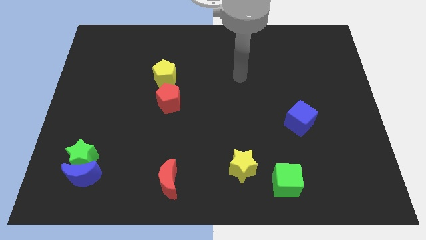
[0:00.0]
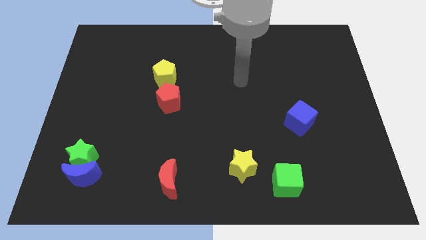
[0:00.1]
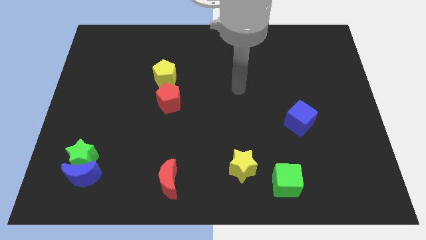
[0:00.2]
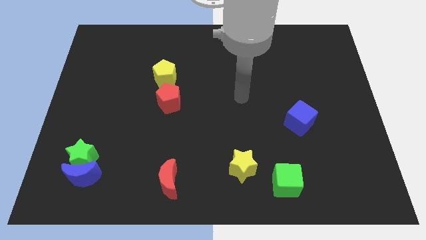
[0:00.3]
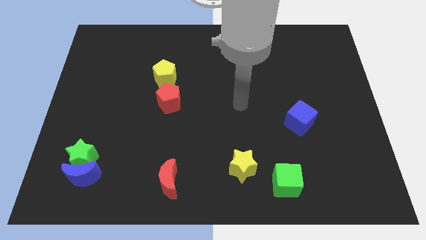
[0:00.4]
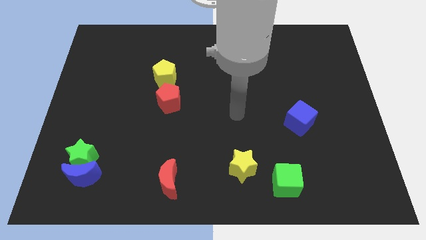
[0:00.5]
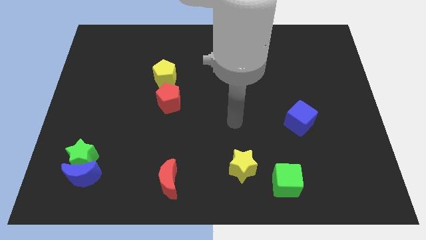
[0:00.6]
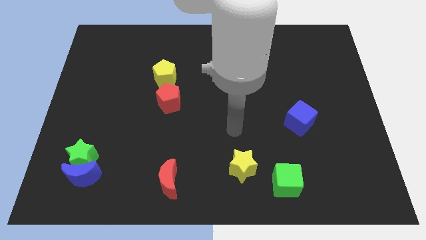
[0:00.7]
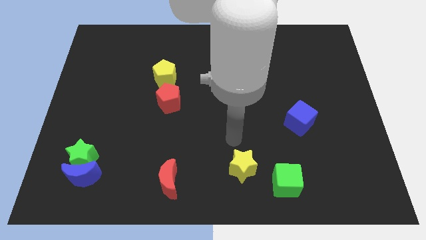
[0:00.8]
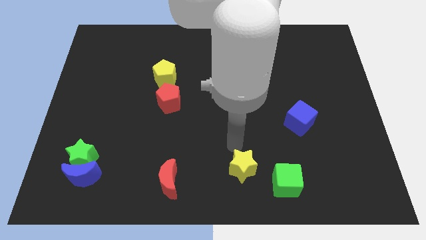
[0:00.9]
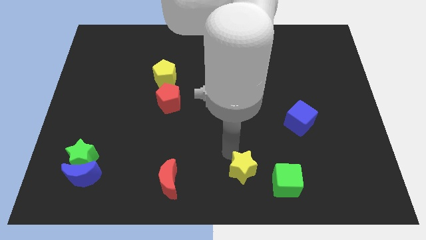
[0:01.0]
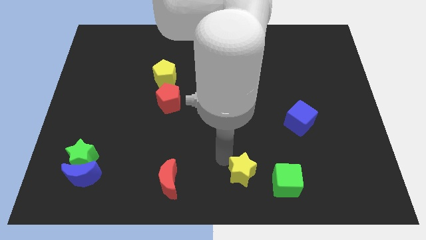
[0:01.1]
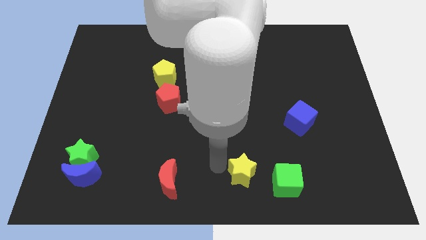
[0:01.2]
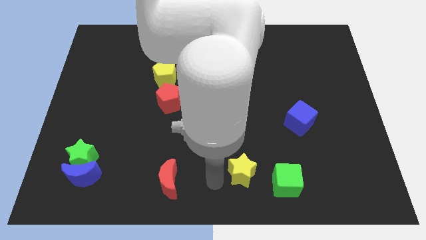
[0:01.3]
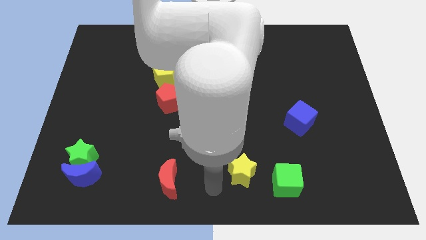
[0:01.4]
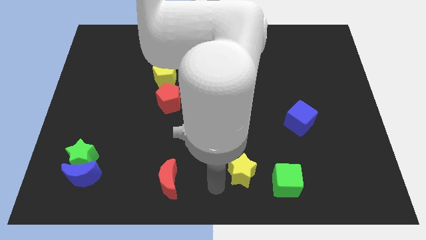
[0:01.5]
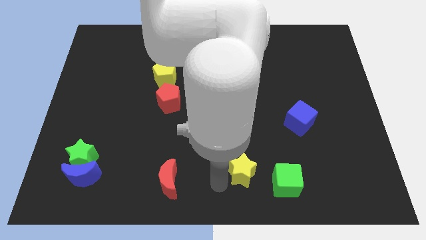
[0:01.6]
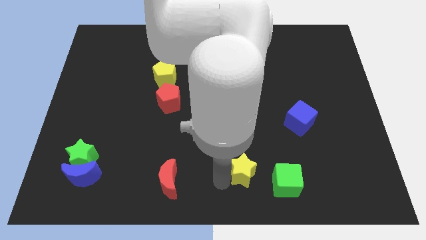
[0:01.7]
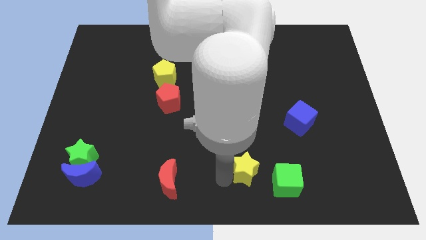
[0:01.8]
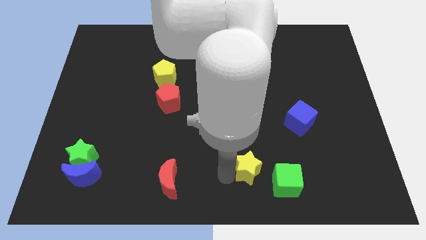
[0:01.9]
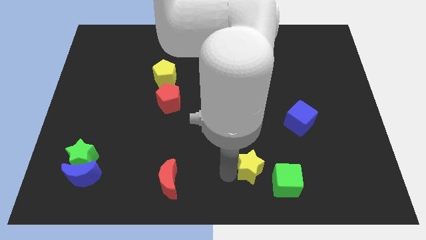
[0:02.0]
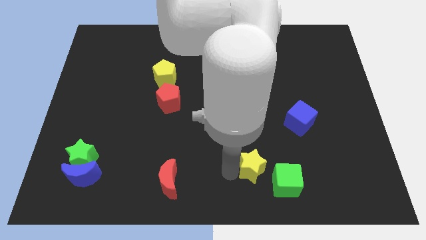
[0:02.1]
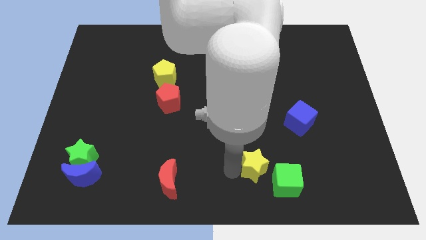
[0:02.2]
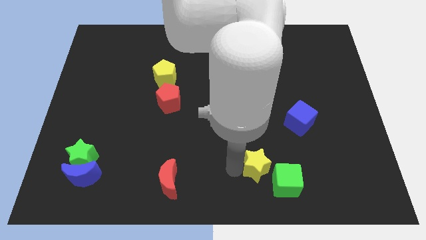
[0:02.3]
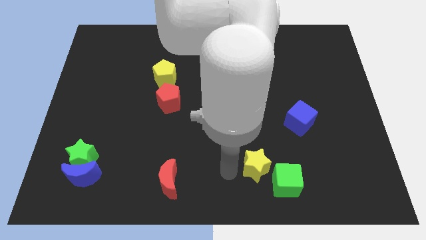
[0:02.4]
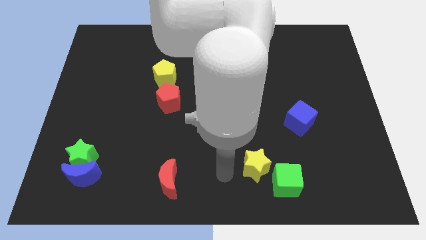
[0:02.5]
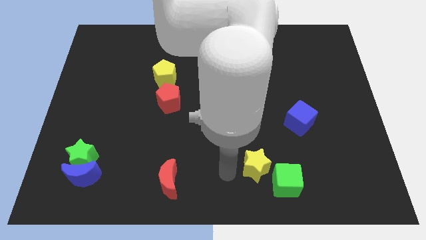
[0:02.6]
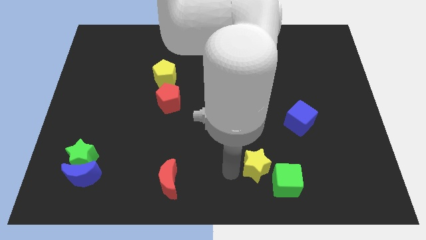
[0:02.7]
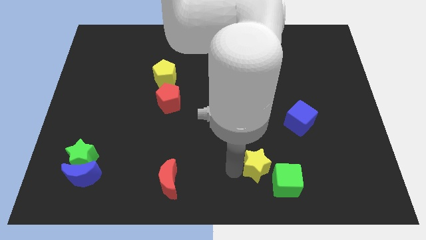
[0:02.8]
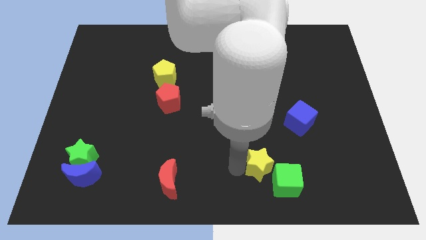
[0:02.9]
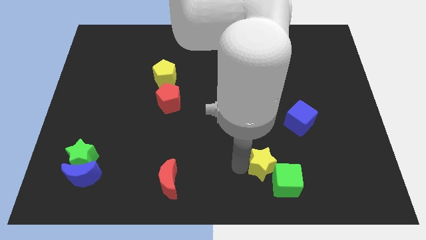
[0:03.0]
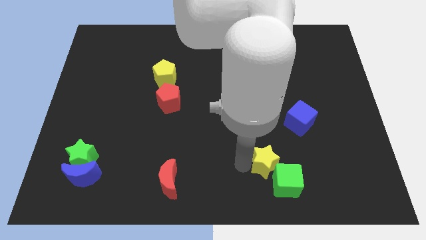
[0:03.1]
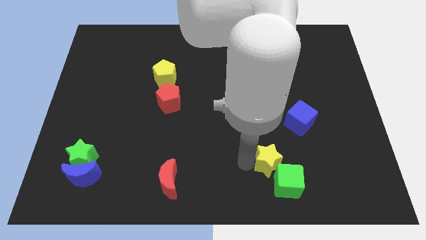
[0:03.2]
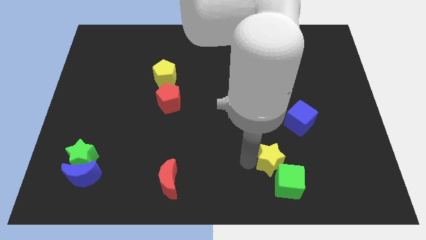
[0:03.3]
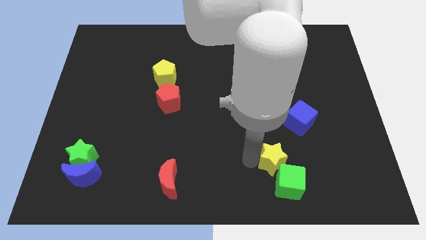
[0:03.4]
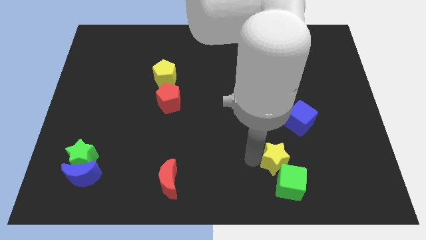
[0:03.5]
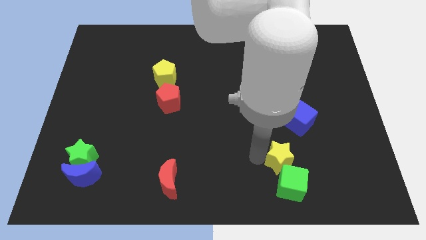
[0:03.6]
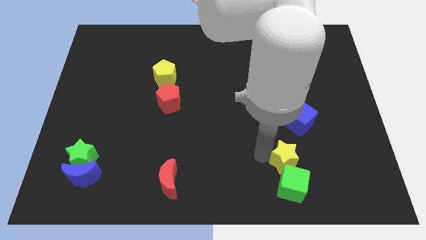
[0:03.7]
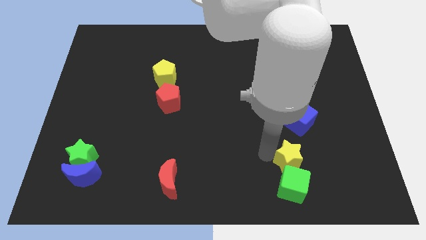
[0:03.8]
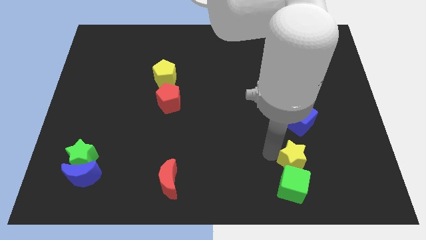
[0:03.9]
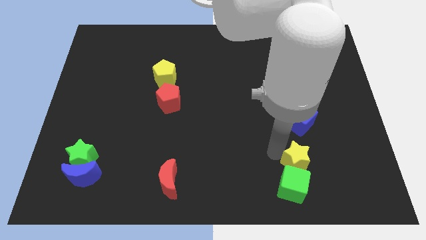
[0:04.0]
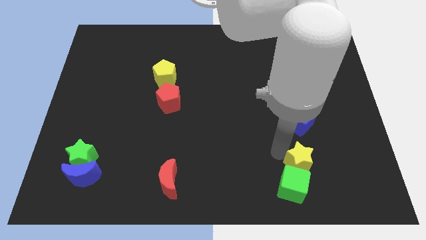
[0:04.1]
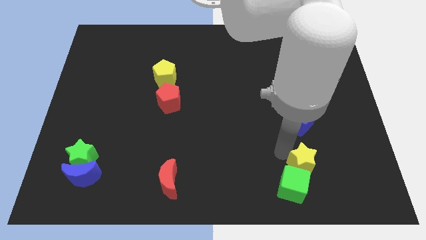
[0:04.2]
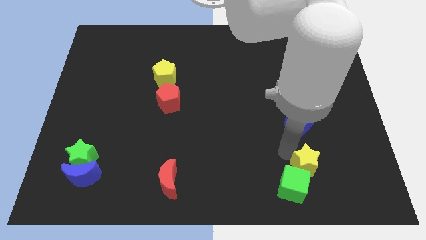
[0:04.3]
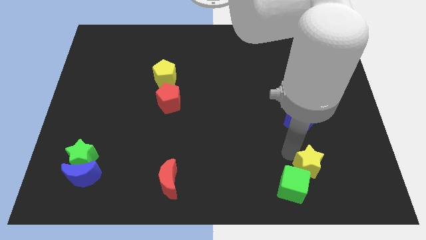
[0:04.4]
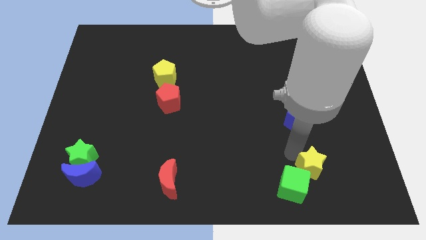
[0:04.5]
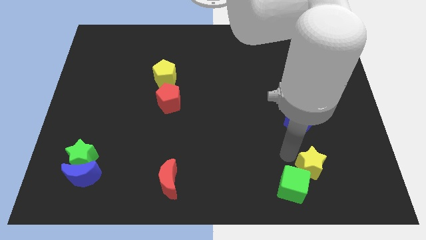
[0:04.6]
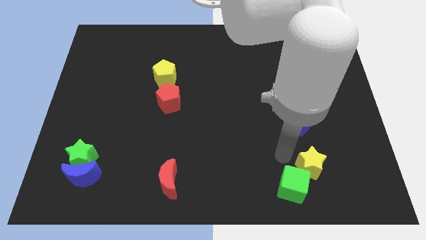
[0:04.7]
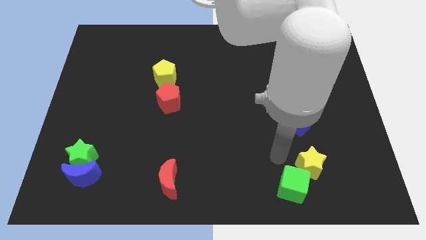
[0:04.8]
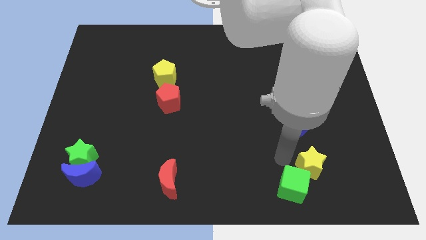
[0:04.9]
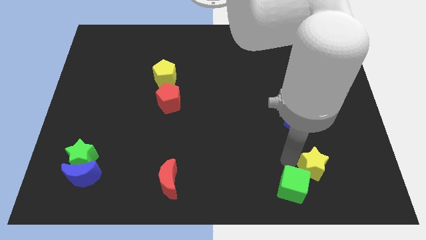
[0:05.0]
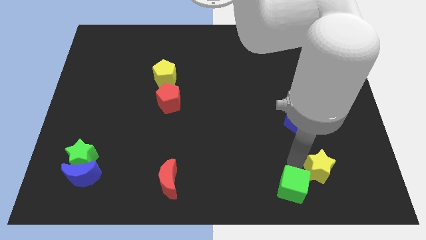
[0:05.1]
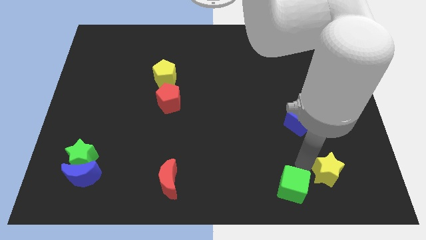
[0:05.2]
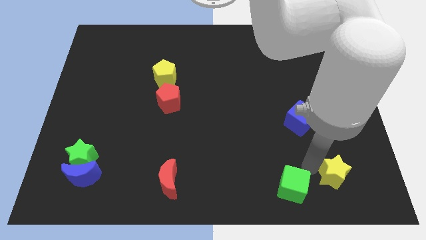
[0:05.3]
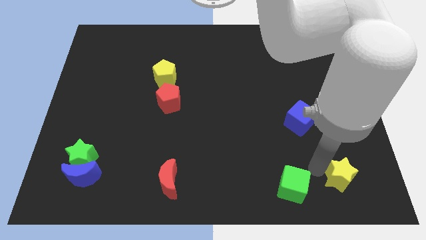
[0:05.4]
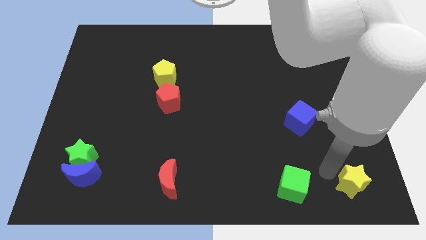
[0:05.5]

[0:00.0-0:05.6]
push the yellow star to the bottom right of the board

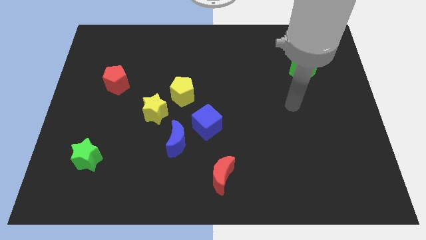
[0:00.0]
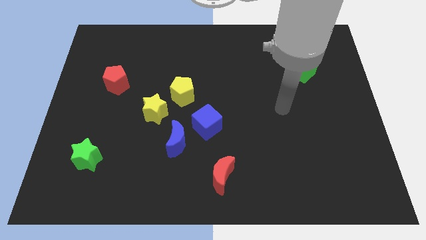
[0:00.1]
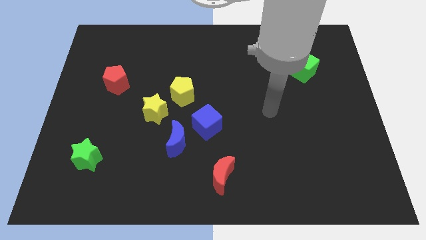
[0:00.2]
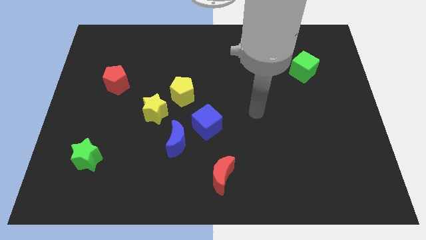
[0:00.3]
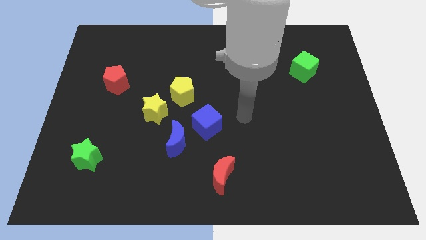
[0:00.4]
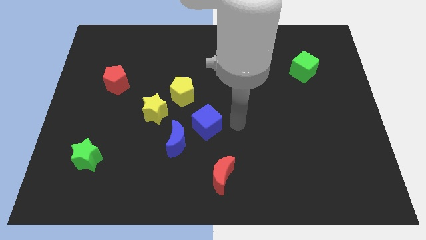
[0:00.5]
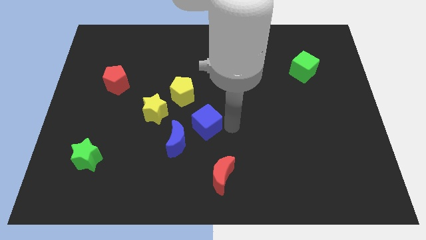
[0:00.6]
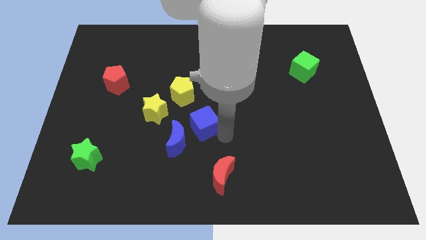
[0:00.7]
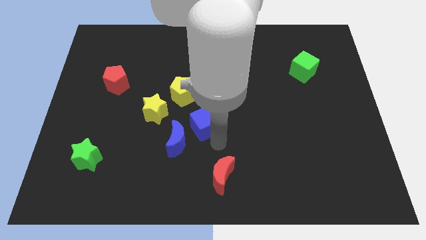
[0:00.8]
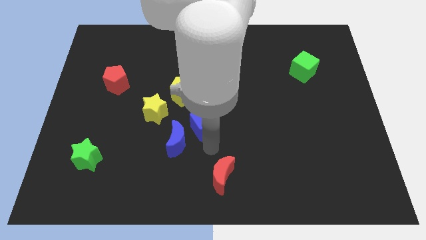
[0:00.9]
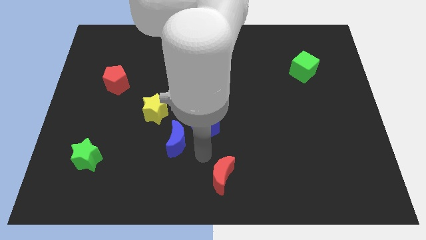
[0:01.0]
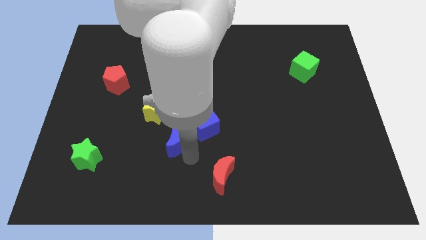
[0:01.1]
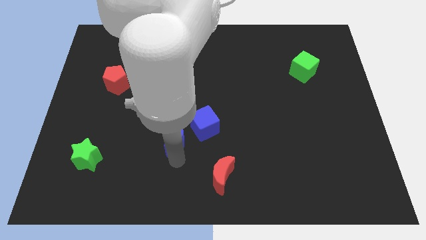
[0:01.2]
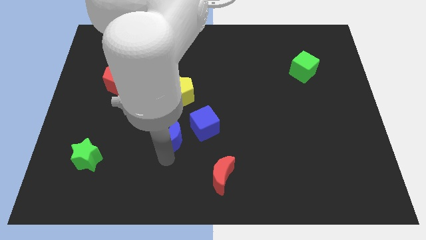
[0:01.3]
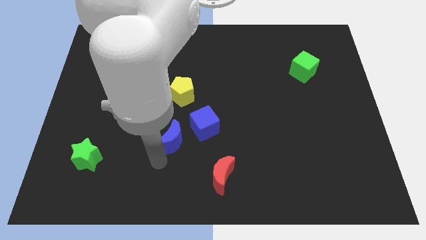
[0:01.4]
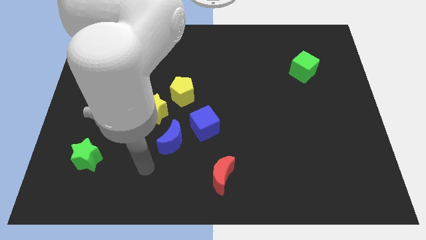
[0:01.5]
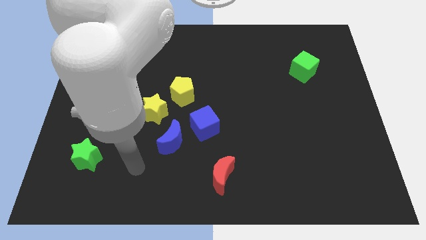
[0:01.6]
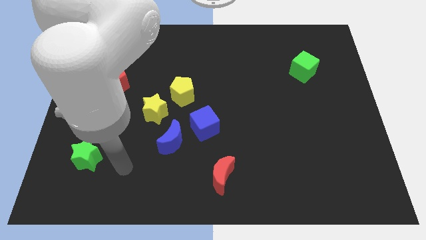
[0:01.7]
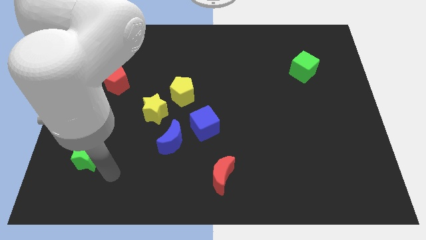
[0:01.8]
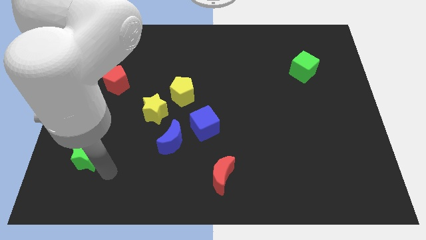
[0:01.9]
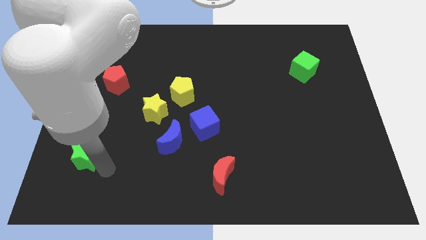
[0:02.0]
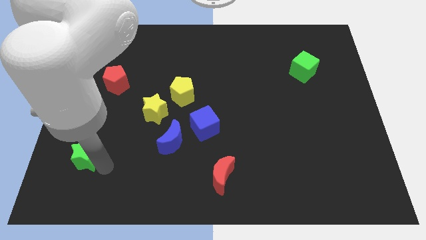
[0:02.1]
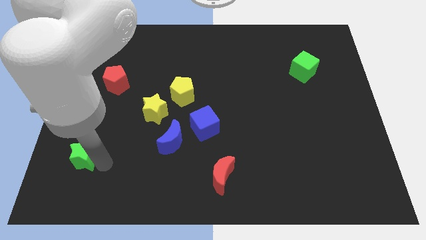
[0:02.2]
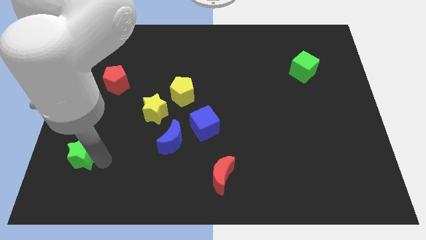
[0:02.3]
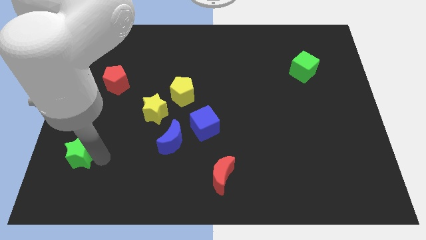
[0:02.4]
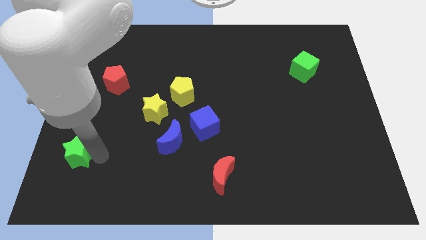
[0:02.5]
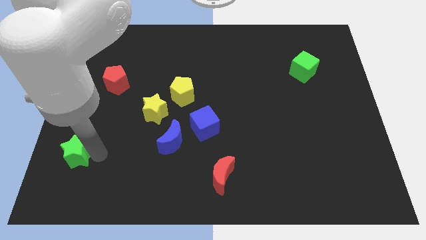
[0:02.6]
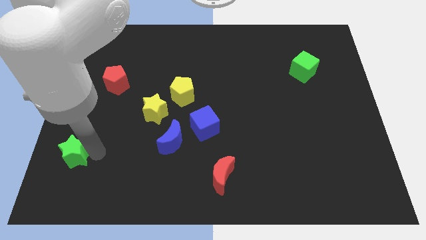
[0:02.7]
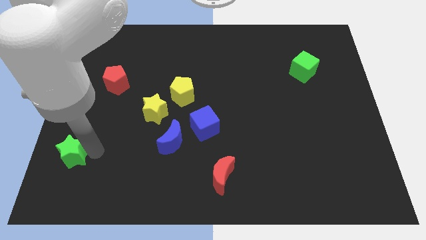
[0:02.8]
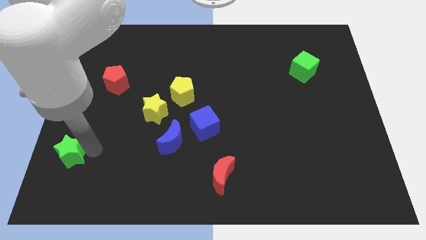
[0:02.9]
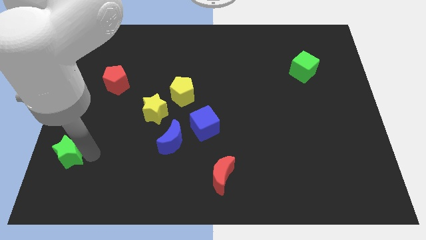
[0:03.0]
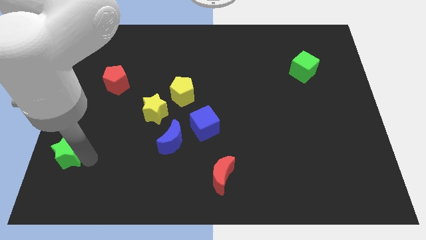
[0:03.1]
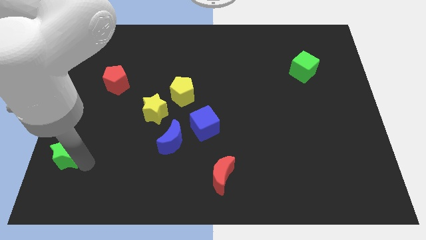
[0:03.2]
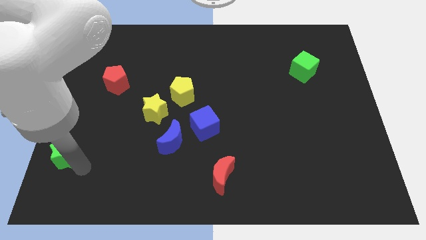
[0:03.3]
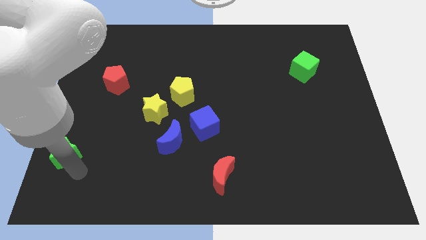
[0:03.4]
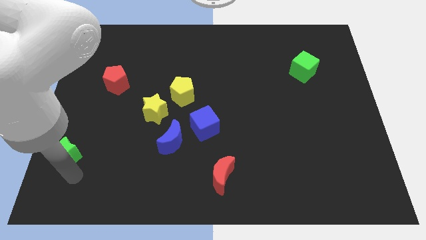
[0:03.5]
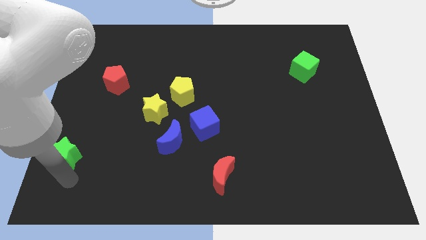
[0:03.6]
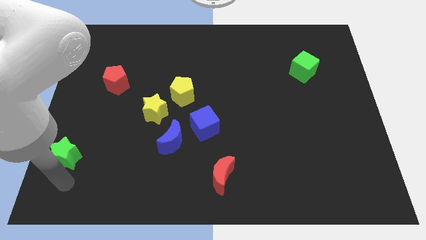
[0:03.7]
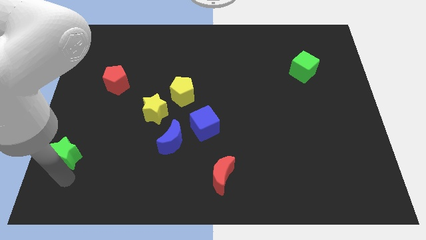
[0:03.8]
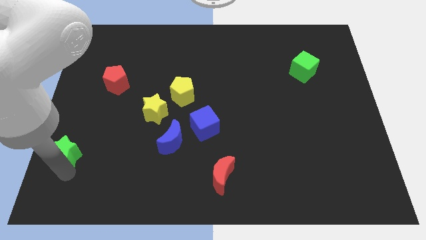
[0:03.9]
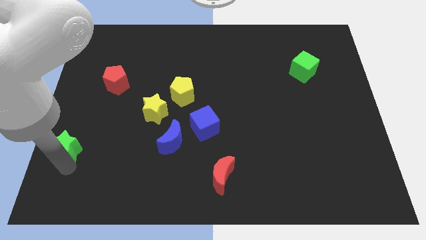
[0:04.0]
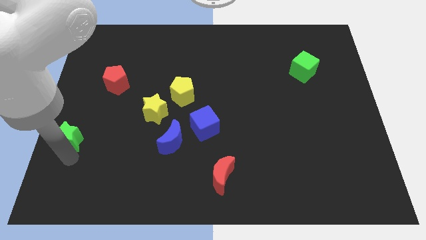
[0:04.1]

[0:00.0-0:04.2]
push the green star to the left side
